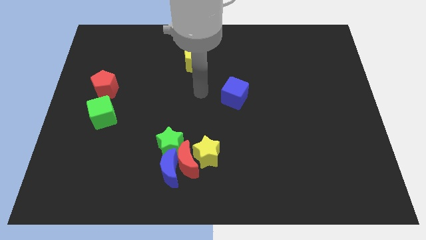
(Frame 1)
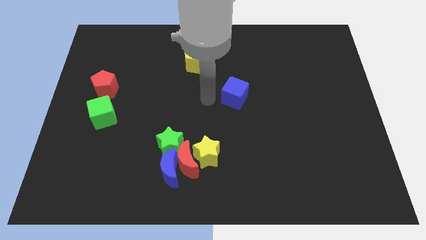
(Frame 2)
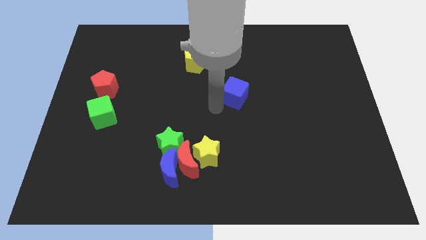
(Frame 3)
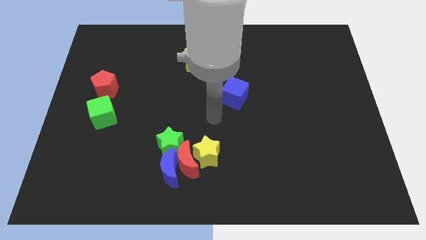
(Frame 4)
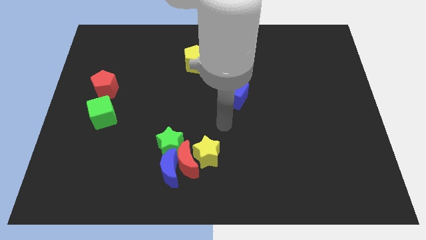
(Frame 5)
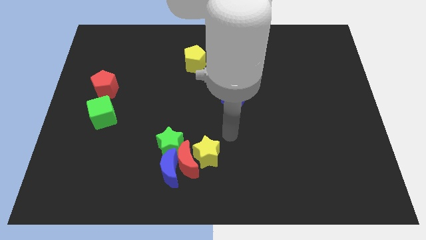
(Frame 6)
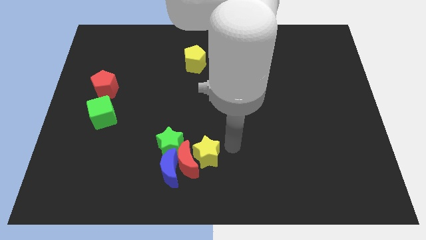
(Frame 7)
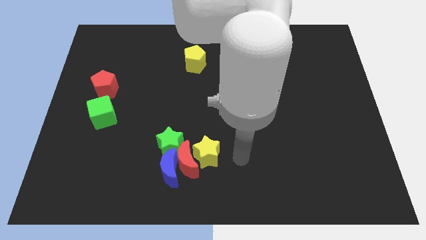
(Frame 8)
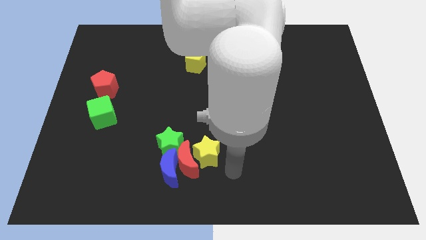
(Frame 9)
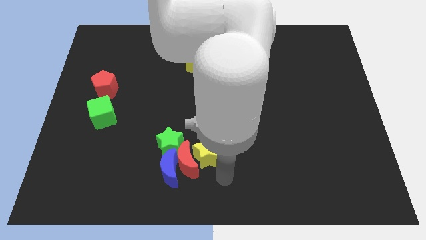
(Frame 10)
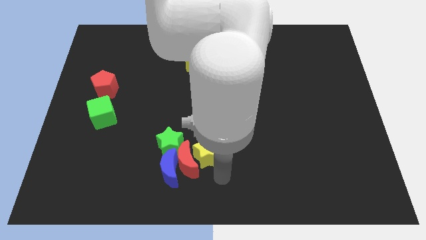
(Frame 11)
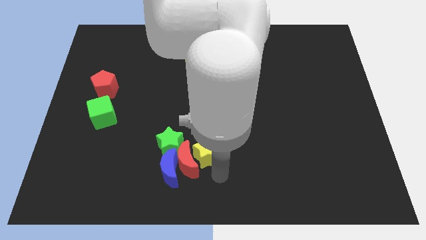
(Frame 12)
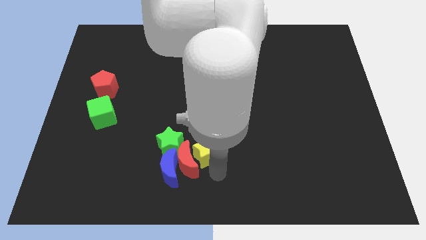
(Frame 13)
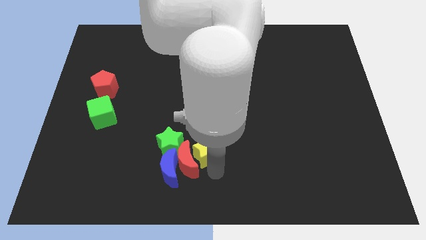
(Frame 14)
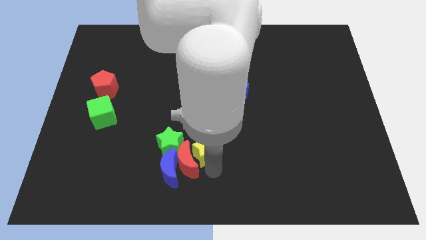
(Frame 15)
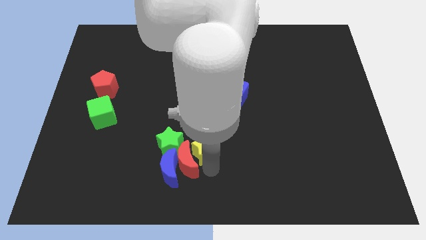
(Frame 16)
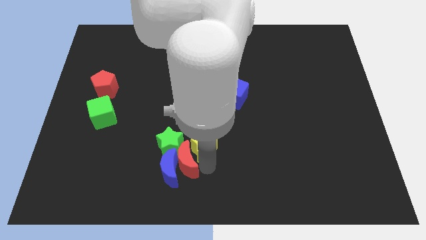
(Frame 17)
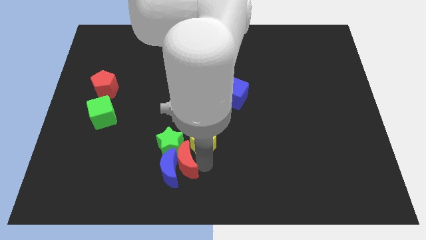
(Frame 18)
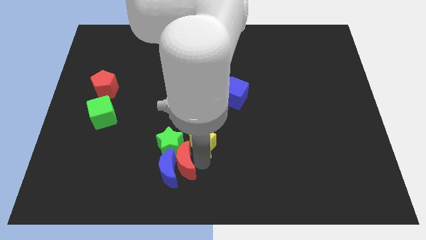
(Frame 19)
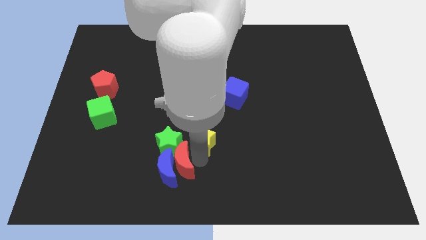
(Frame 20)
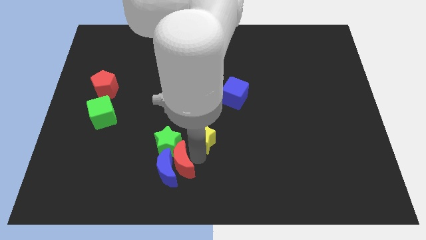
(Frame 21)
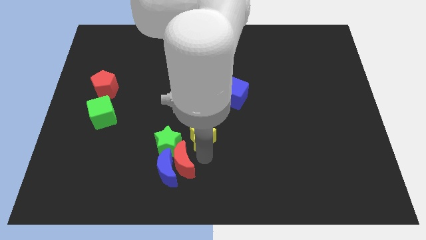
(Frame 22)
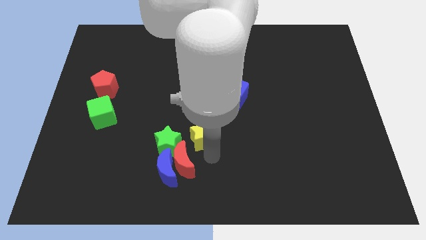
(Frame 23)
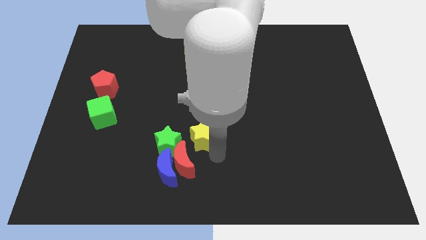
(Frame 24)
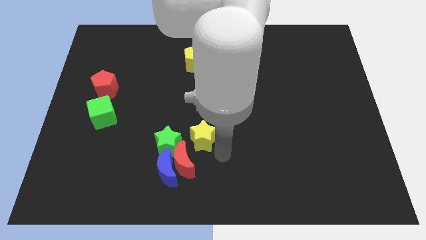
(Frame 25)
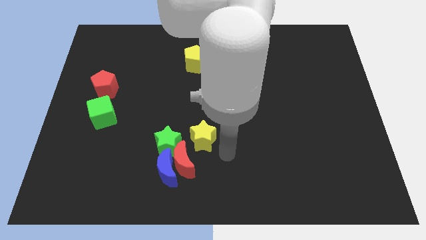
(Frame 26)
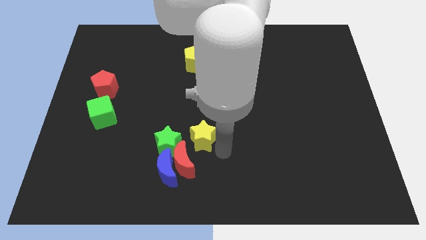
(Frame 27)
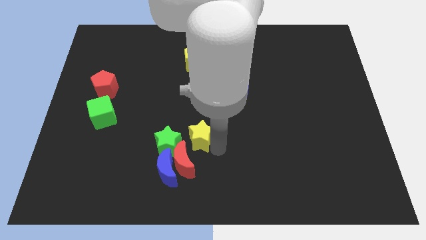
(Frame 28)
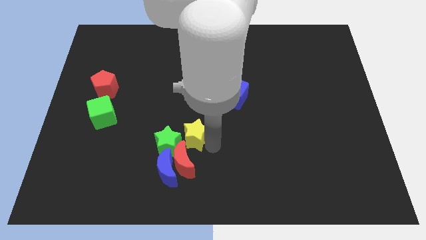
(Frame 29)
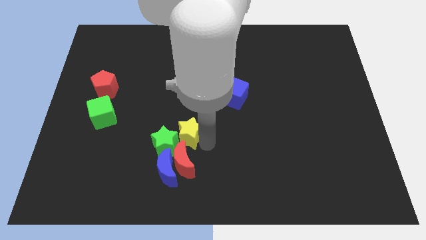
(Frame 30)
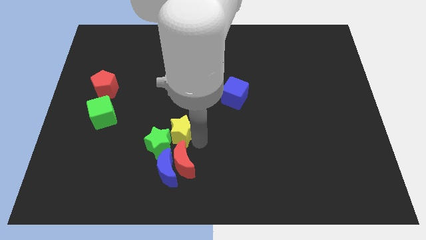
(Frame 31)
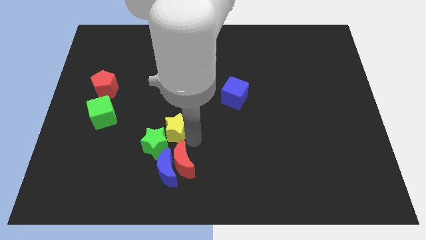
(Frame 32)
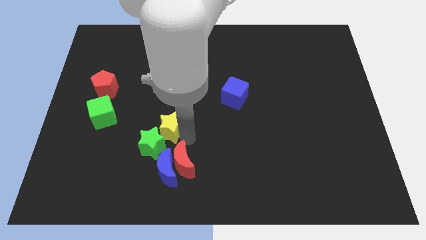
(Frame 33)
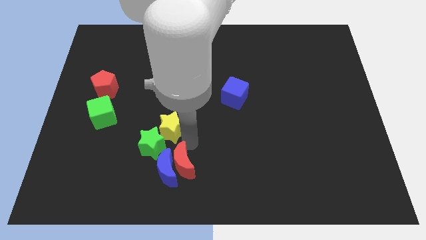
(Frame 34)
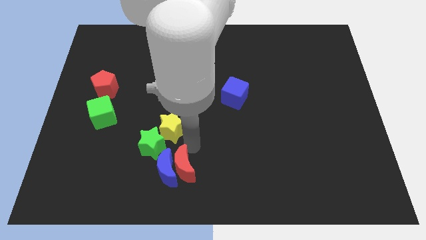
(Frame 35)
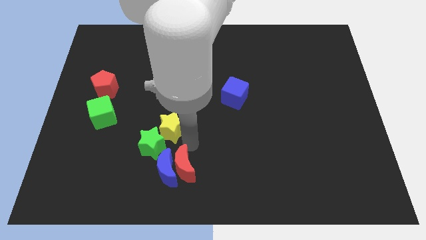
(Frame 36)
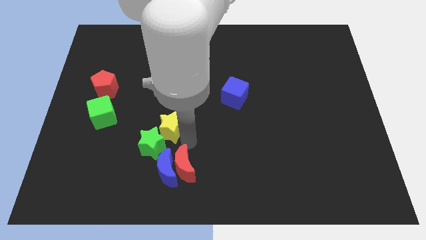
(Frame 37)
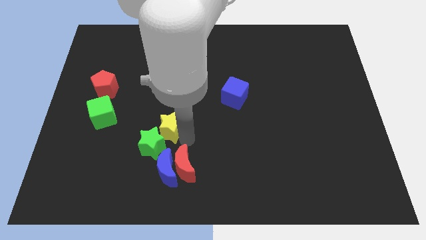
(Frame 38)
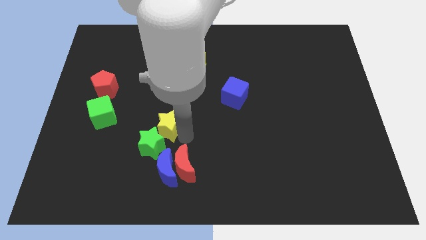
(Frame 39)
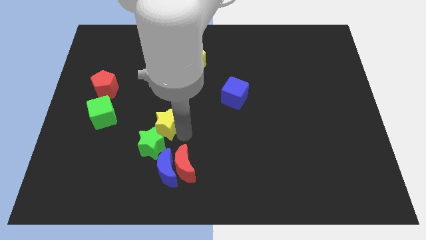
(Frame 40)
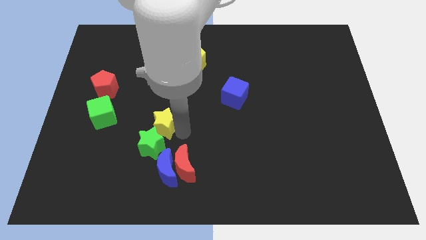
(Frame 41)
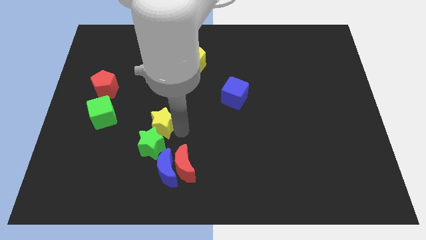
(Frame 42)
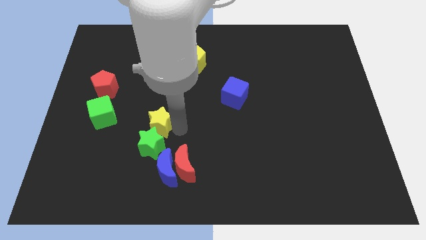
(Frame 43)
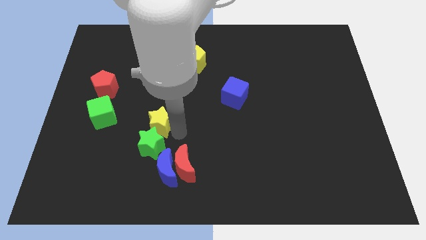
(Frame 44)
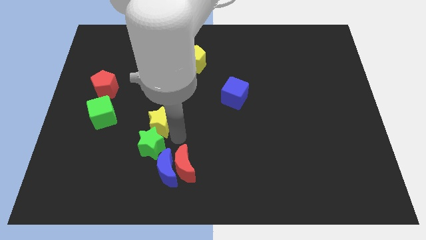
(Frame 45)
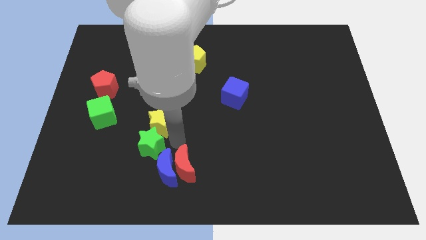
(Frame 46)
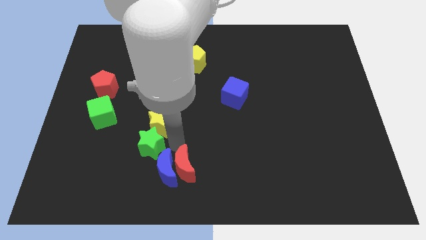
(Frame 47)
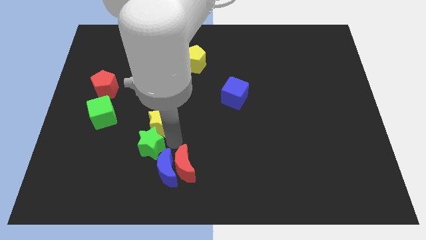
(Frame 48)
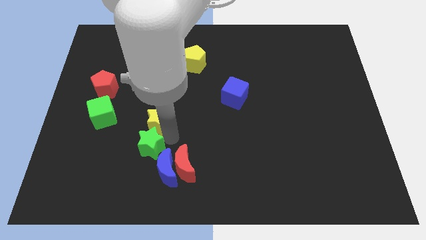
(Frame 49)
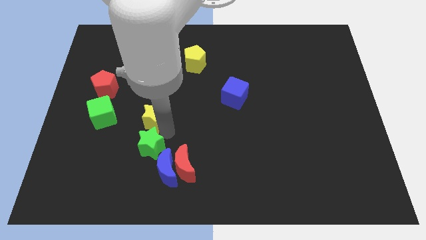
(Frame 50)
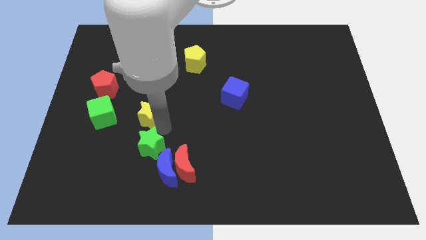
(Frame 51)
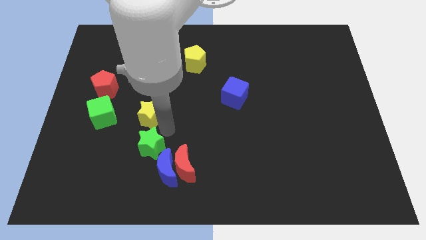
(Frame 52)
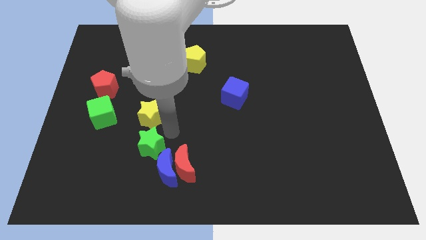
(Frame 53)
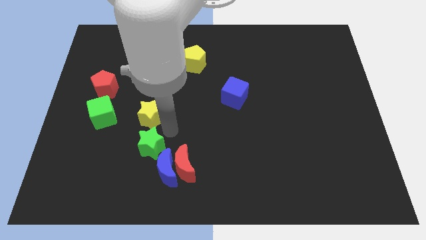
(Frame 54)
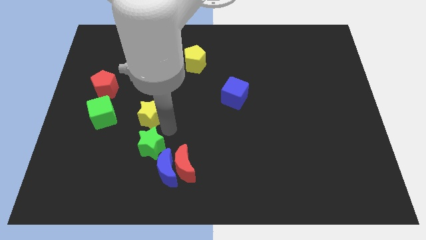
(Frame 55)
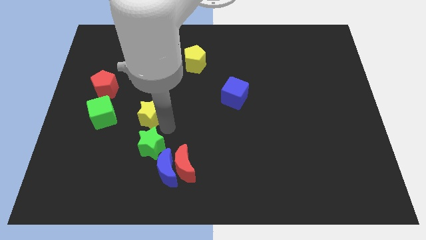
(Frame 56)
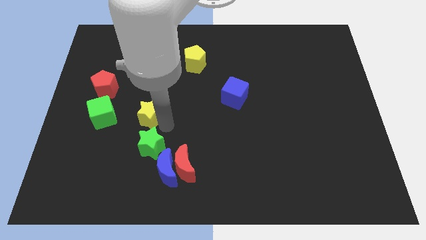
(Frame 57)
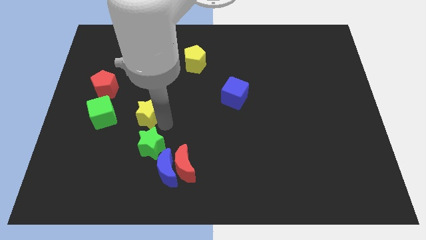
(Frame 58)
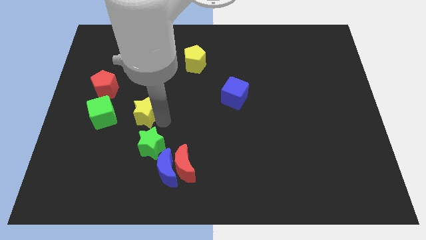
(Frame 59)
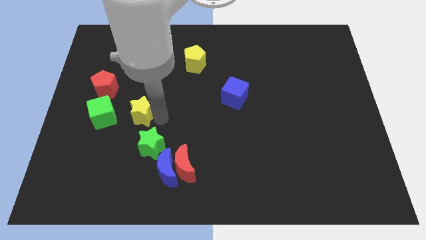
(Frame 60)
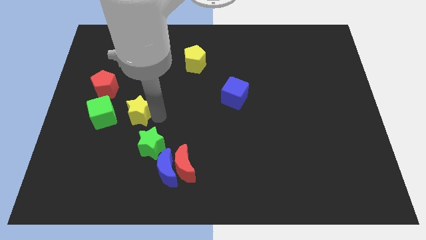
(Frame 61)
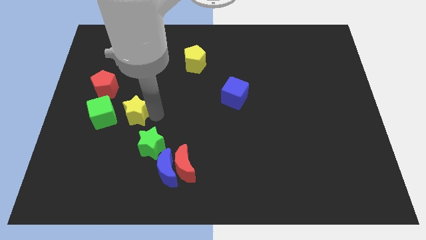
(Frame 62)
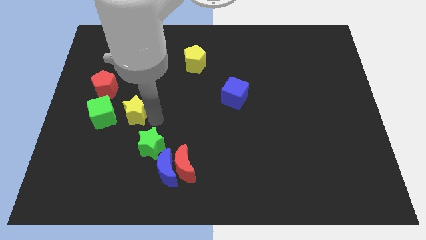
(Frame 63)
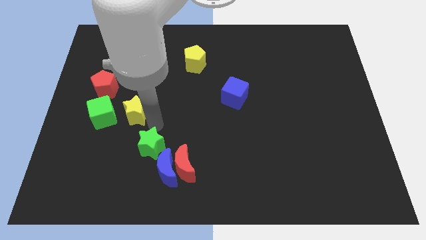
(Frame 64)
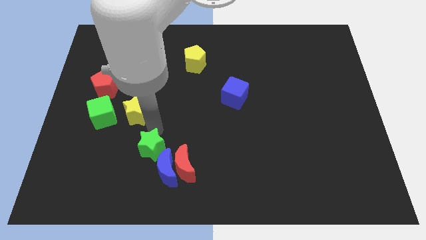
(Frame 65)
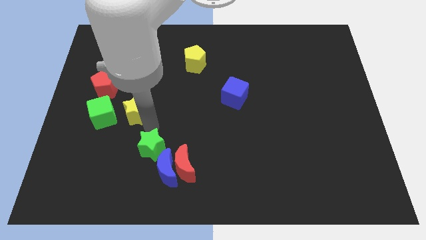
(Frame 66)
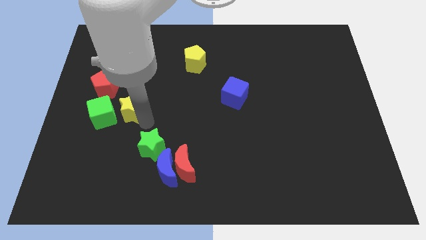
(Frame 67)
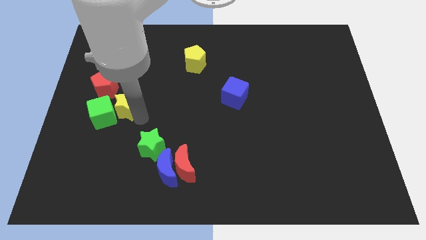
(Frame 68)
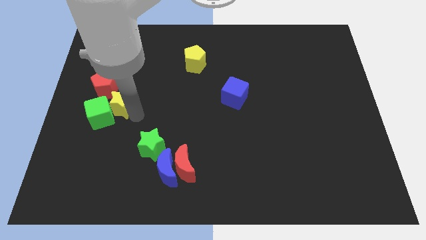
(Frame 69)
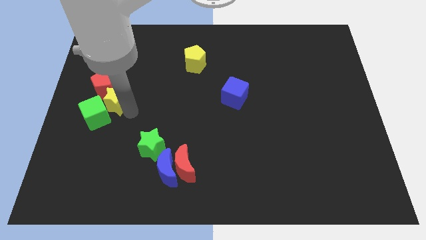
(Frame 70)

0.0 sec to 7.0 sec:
push the yellow star towards the red pentagon

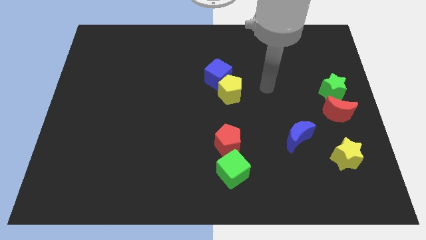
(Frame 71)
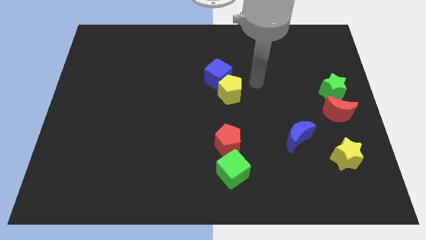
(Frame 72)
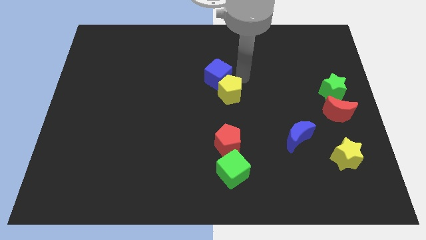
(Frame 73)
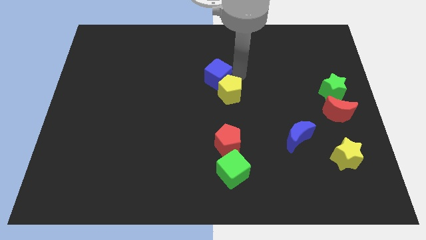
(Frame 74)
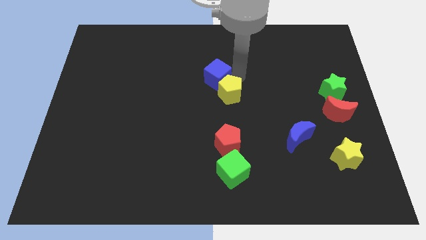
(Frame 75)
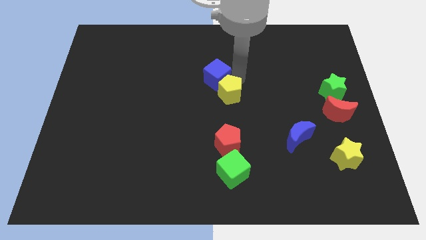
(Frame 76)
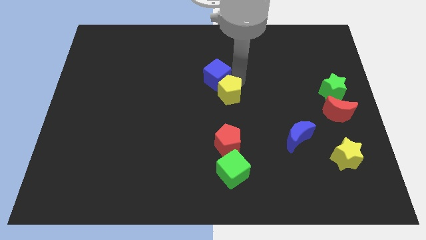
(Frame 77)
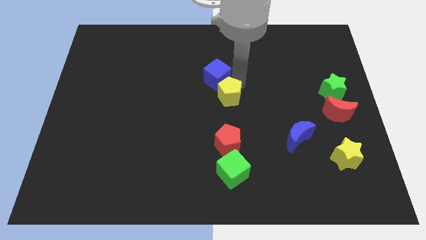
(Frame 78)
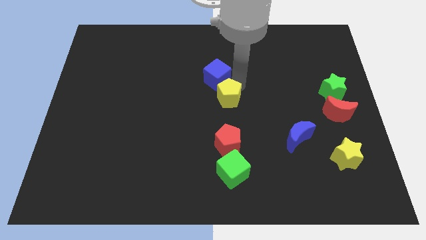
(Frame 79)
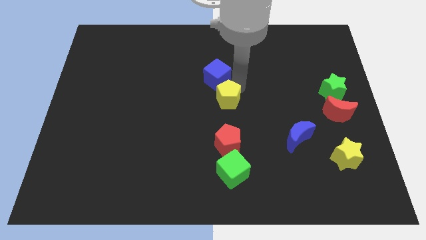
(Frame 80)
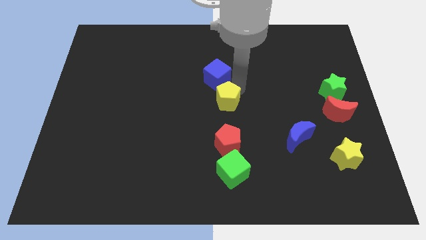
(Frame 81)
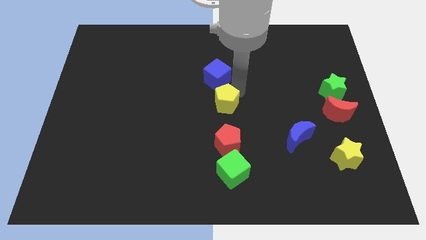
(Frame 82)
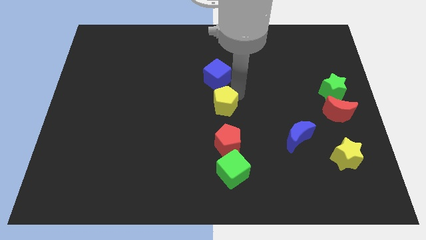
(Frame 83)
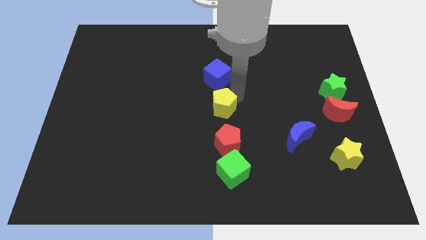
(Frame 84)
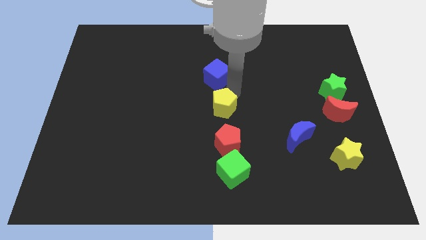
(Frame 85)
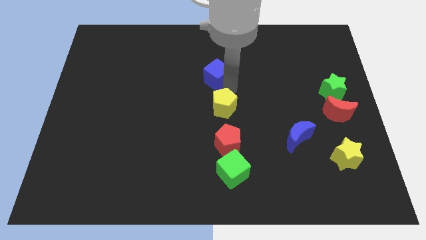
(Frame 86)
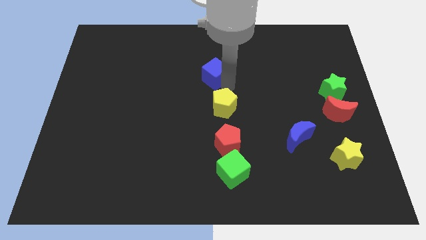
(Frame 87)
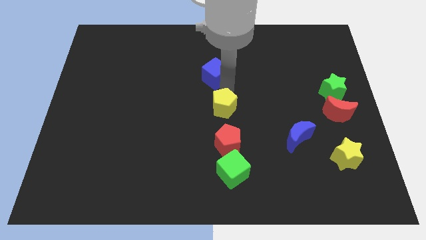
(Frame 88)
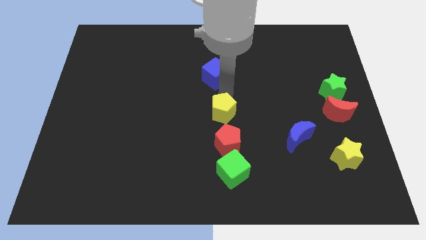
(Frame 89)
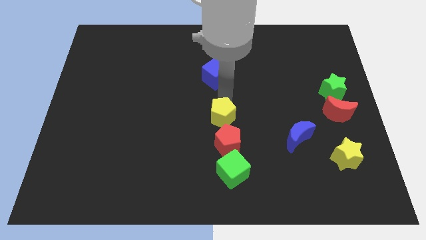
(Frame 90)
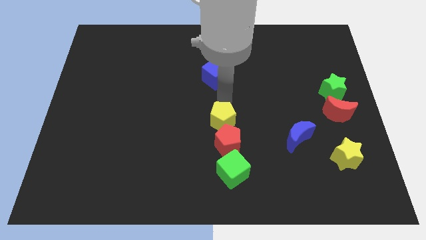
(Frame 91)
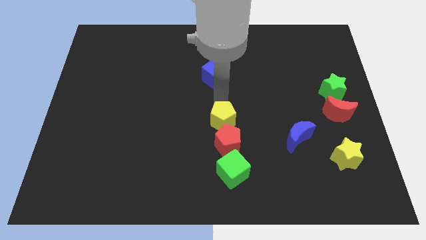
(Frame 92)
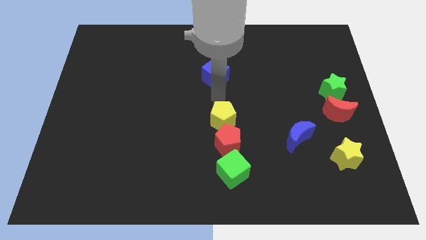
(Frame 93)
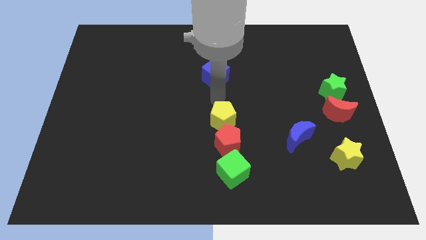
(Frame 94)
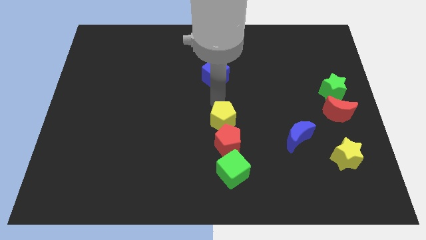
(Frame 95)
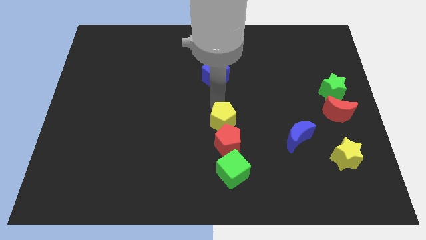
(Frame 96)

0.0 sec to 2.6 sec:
slide the yellow pentagon to the red pentagon
